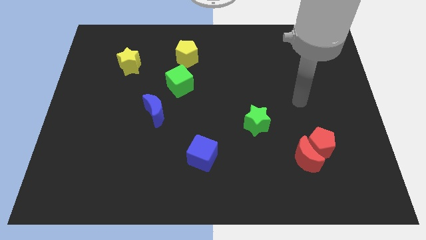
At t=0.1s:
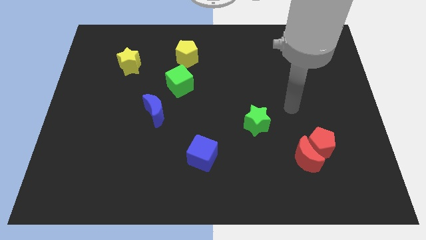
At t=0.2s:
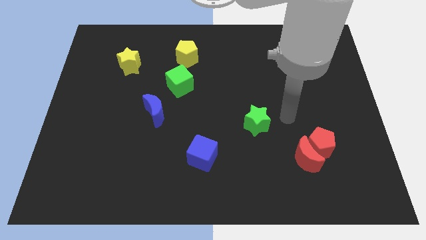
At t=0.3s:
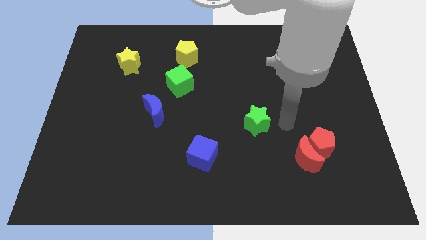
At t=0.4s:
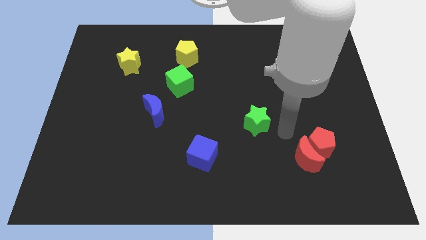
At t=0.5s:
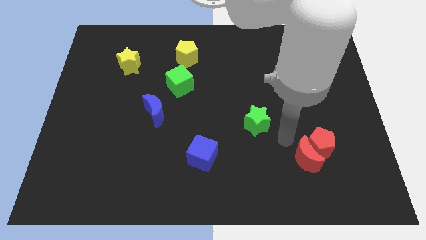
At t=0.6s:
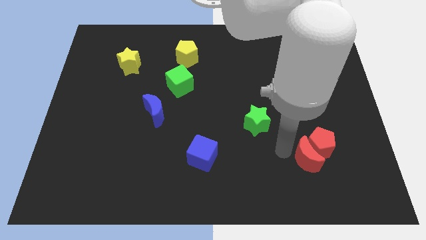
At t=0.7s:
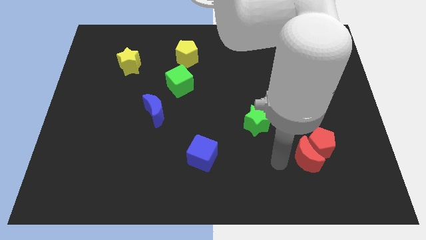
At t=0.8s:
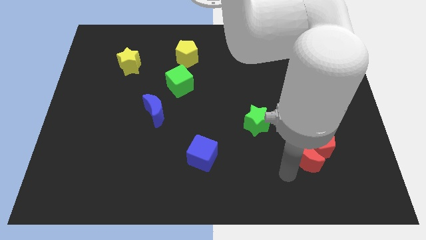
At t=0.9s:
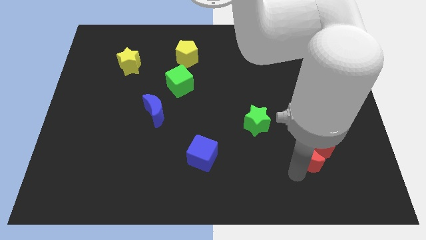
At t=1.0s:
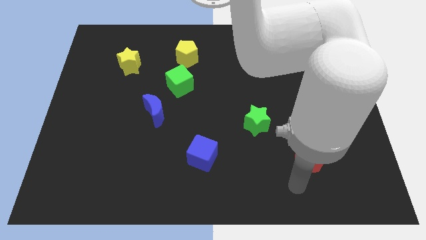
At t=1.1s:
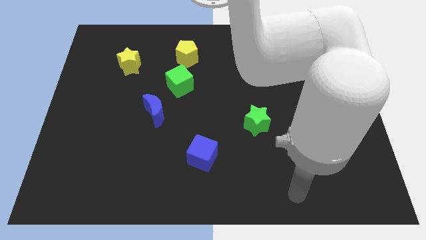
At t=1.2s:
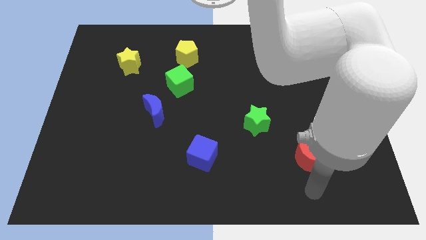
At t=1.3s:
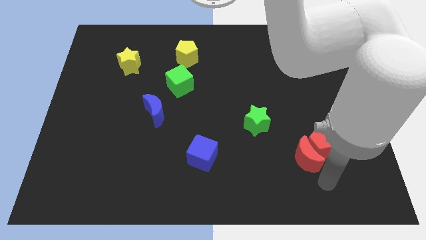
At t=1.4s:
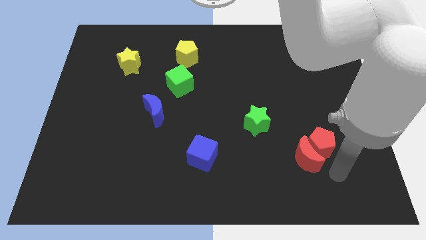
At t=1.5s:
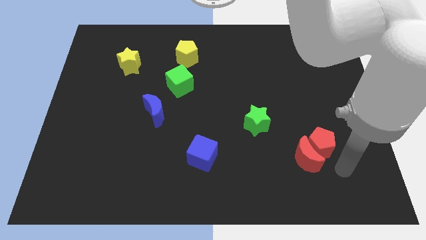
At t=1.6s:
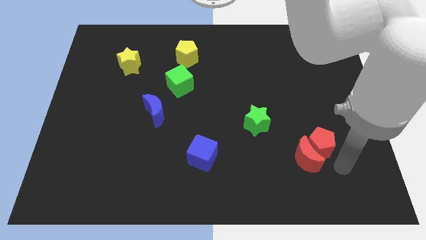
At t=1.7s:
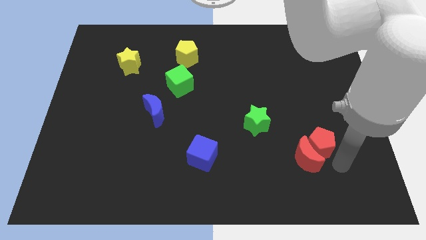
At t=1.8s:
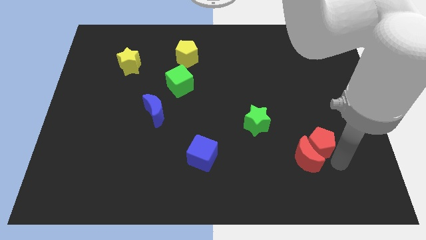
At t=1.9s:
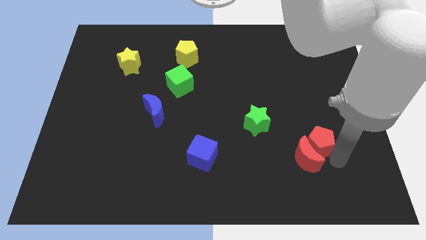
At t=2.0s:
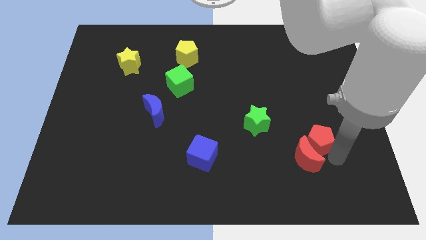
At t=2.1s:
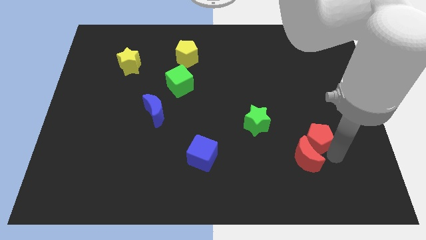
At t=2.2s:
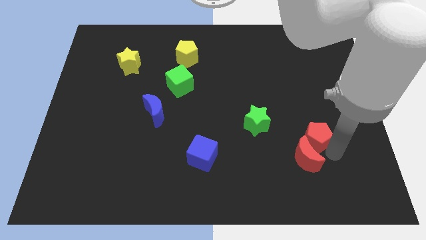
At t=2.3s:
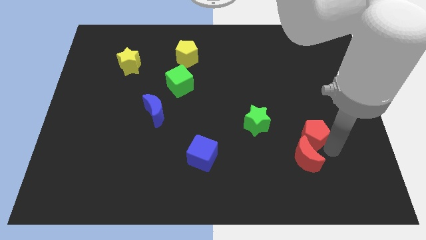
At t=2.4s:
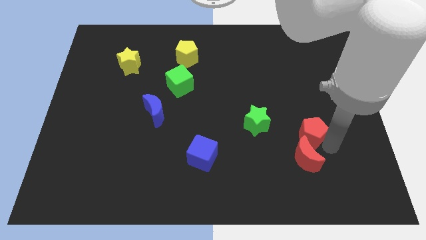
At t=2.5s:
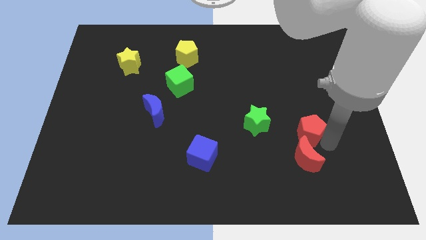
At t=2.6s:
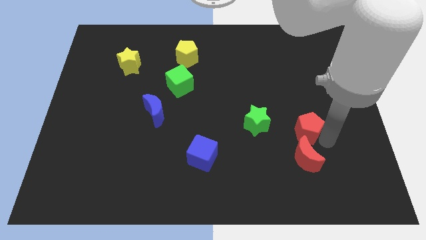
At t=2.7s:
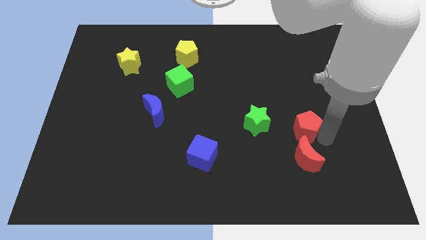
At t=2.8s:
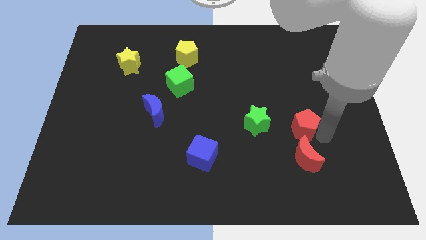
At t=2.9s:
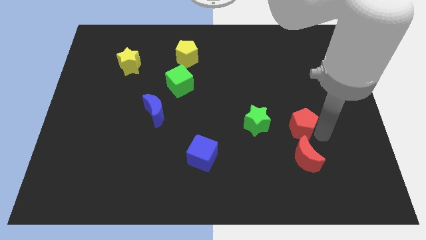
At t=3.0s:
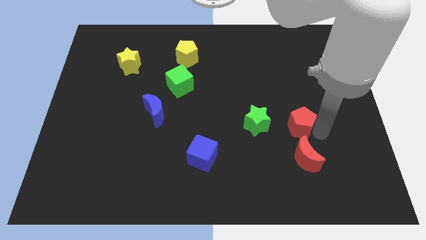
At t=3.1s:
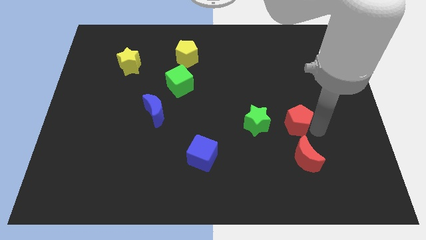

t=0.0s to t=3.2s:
move the red pentagon upwards and then left a little bit

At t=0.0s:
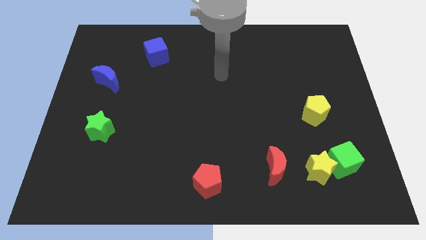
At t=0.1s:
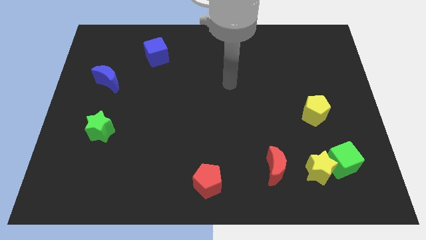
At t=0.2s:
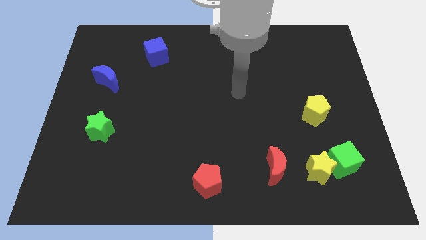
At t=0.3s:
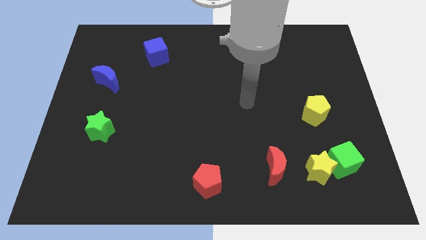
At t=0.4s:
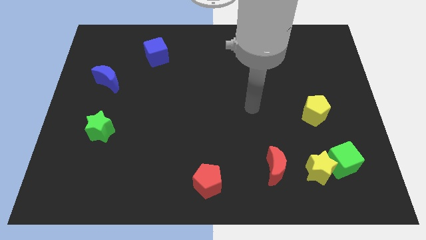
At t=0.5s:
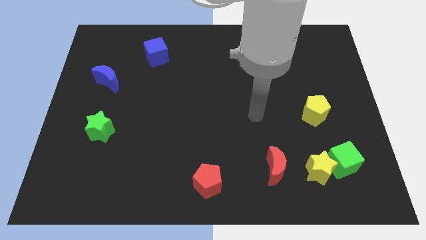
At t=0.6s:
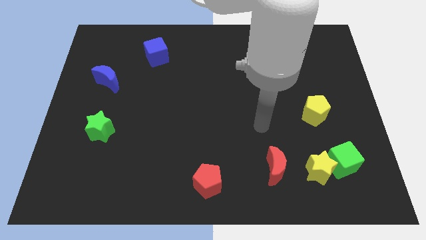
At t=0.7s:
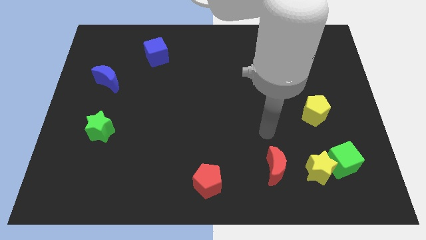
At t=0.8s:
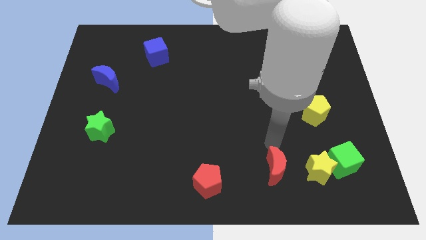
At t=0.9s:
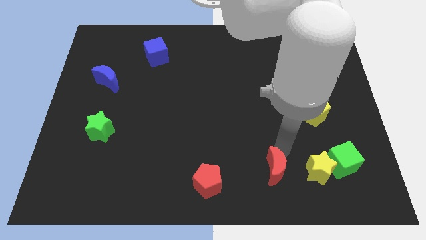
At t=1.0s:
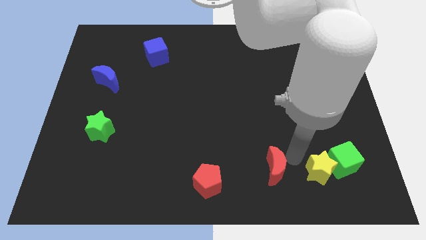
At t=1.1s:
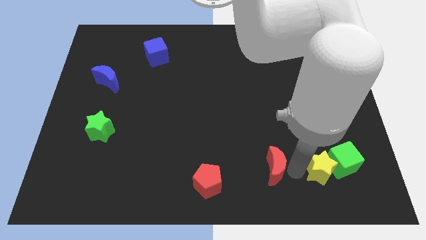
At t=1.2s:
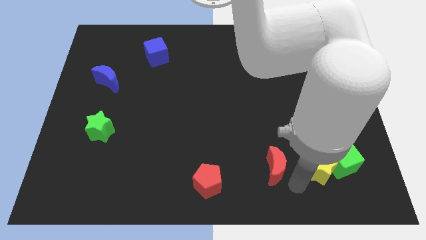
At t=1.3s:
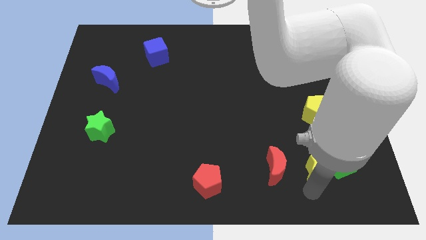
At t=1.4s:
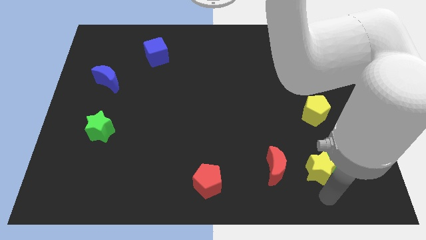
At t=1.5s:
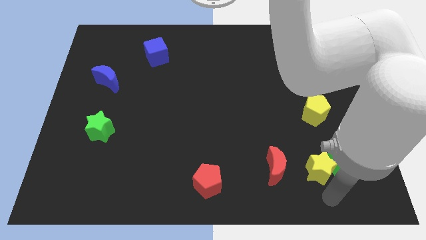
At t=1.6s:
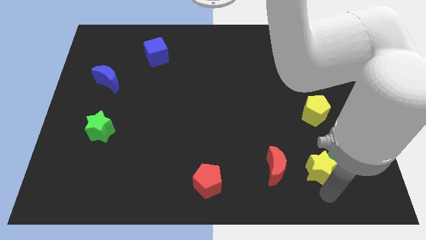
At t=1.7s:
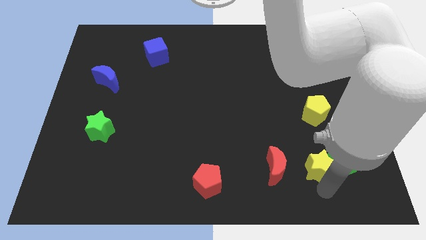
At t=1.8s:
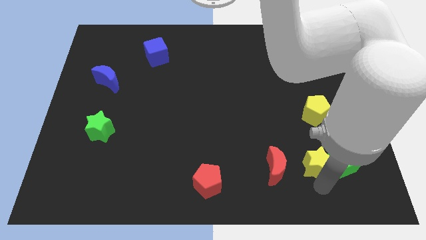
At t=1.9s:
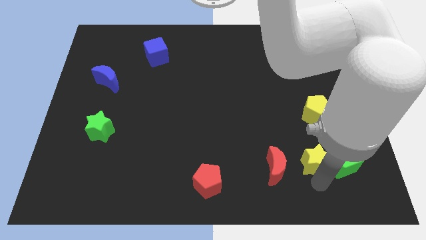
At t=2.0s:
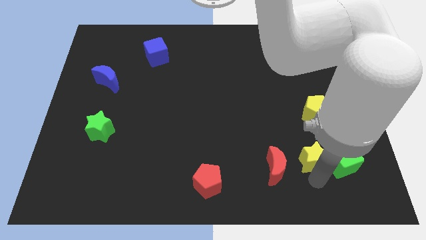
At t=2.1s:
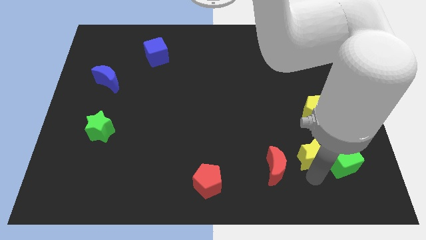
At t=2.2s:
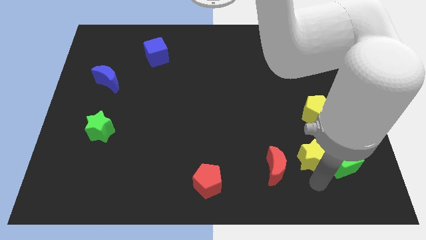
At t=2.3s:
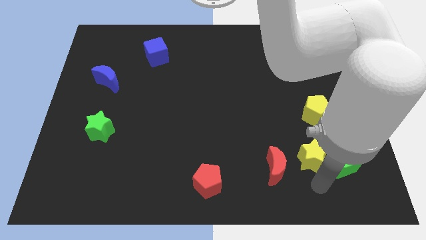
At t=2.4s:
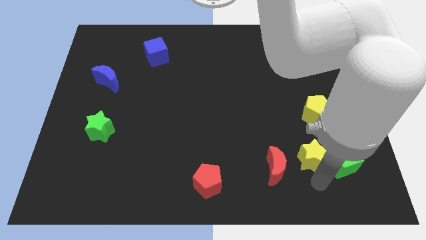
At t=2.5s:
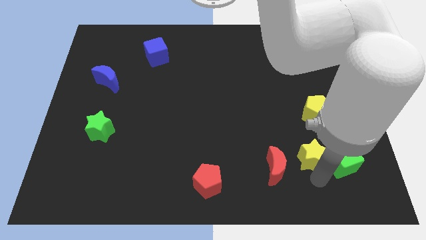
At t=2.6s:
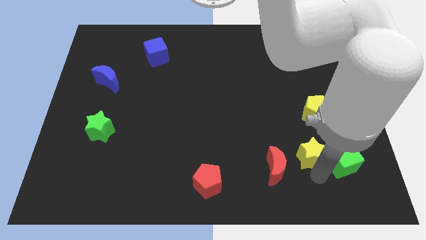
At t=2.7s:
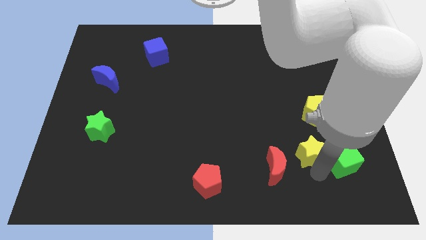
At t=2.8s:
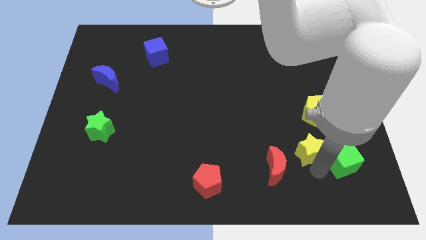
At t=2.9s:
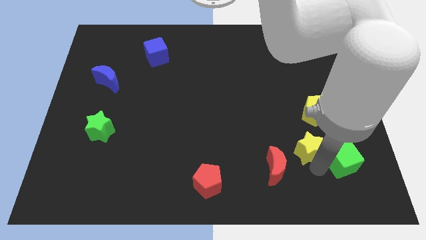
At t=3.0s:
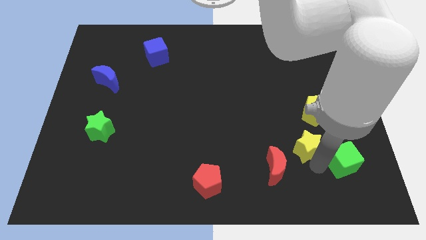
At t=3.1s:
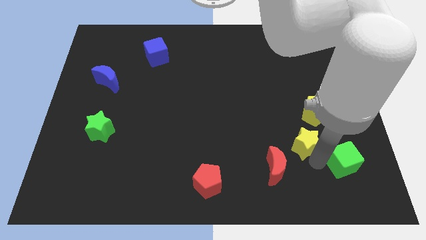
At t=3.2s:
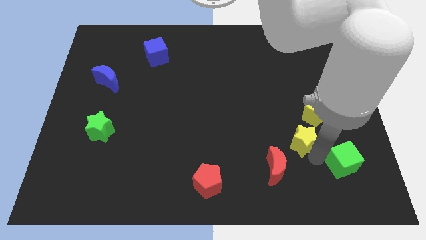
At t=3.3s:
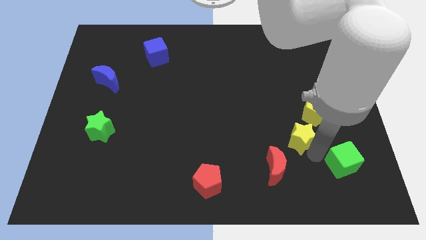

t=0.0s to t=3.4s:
move the yellow star up a little

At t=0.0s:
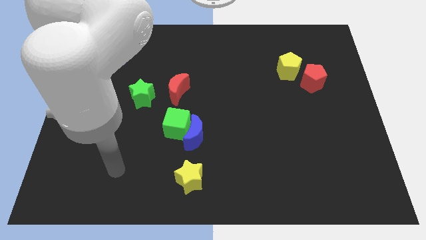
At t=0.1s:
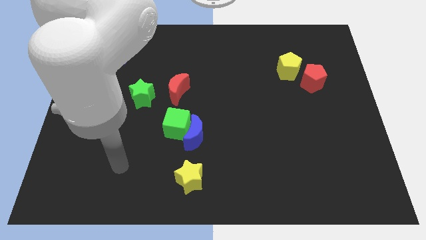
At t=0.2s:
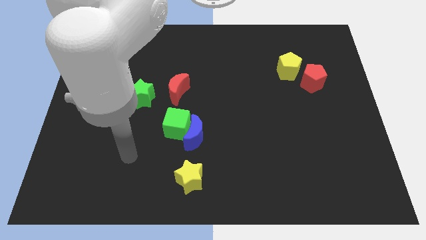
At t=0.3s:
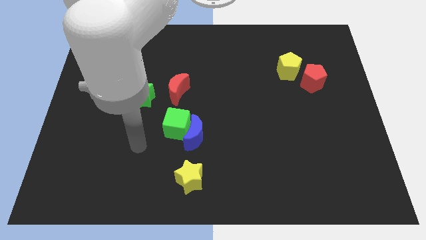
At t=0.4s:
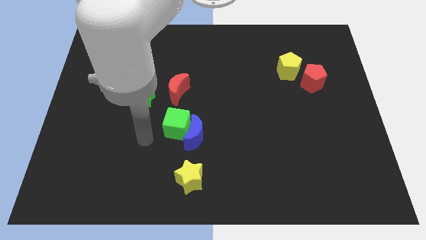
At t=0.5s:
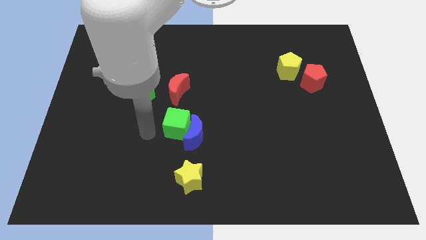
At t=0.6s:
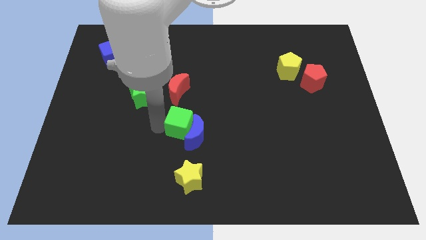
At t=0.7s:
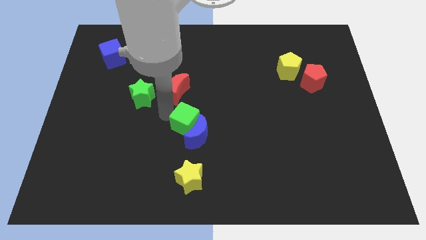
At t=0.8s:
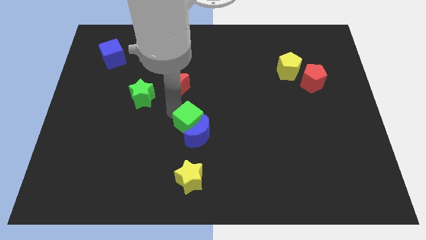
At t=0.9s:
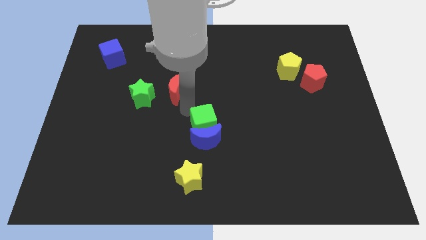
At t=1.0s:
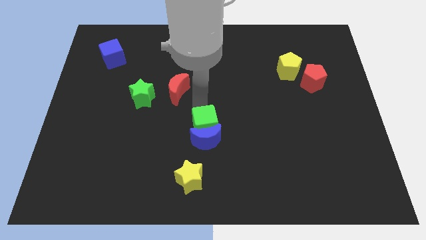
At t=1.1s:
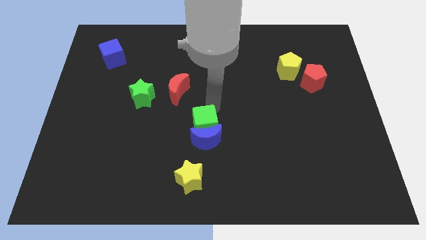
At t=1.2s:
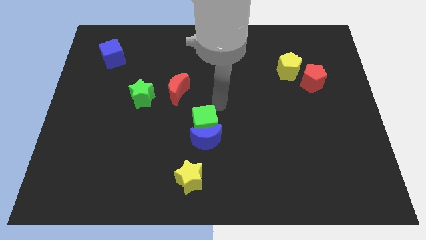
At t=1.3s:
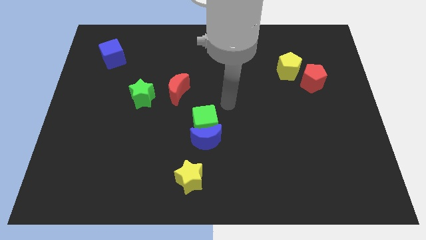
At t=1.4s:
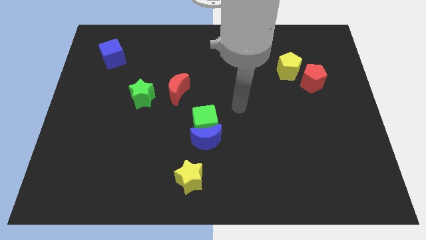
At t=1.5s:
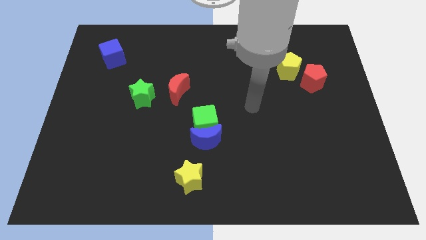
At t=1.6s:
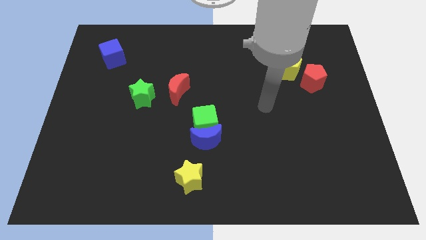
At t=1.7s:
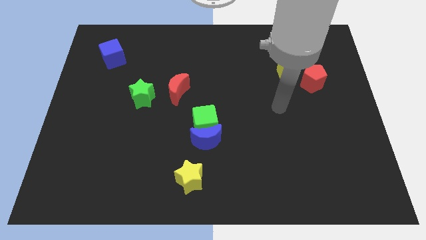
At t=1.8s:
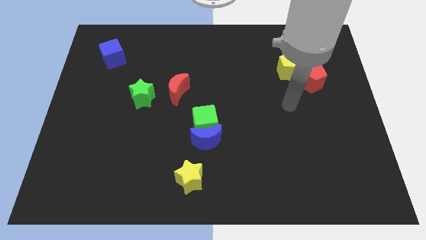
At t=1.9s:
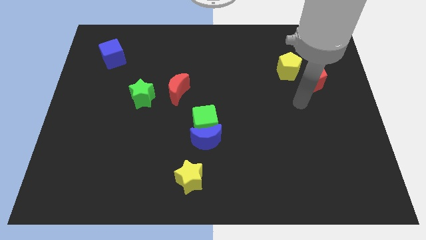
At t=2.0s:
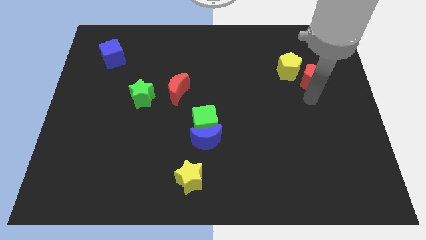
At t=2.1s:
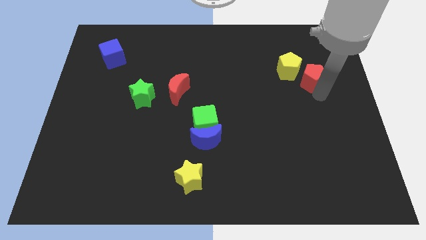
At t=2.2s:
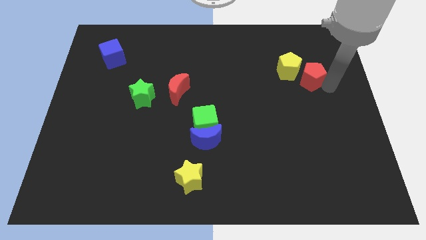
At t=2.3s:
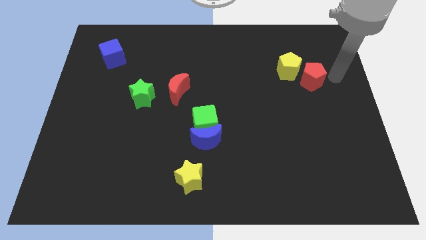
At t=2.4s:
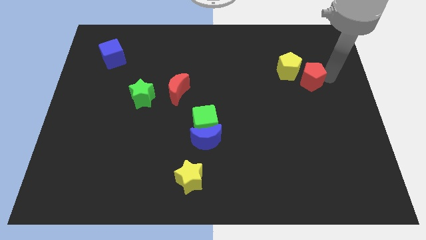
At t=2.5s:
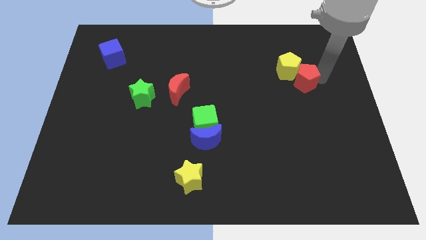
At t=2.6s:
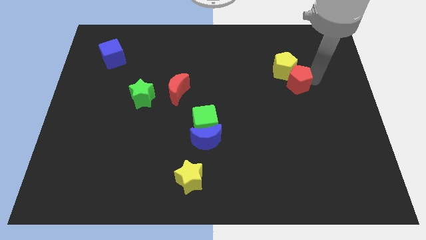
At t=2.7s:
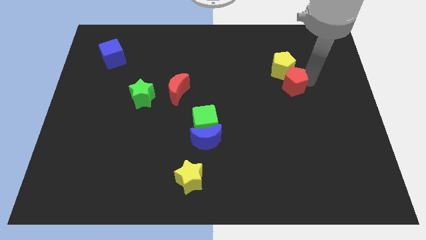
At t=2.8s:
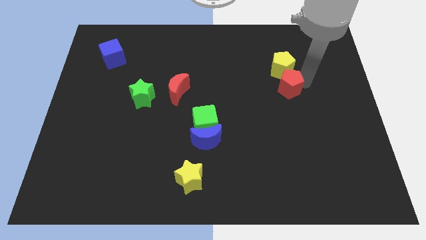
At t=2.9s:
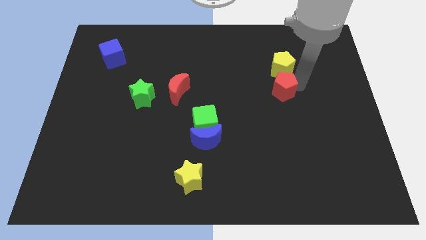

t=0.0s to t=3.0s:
slightly push the red pentagon left
